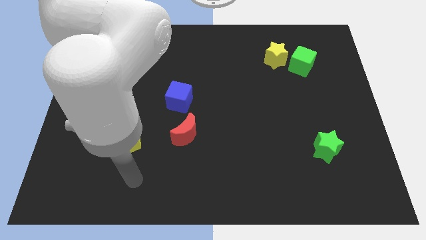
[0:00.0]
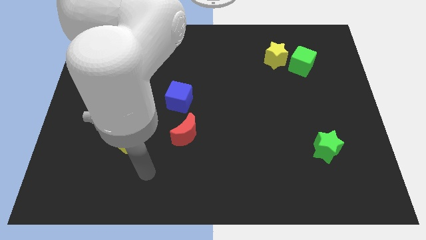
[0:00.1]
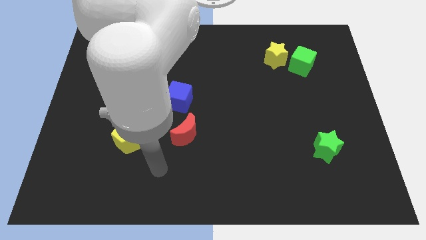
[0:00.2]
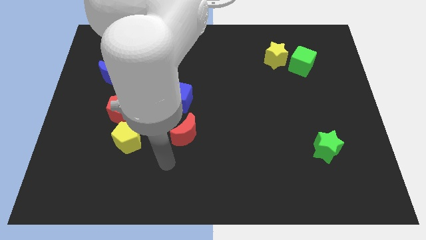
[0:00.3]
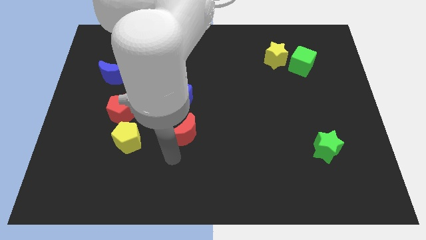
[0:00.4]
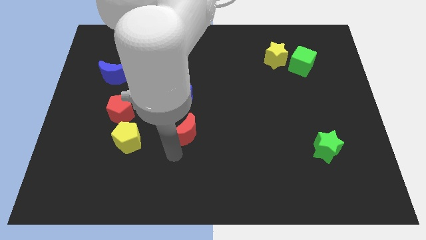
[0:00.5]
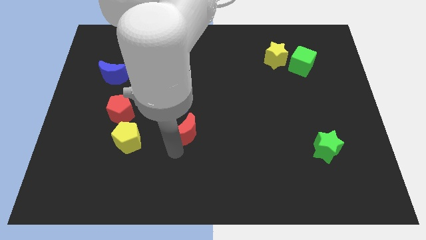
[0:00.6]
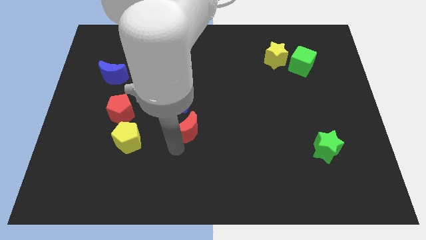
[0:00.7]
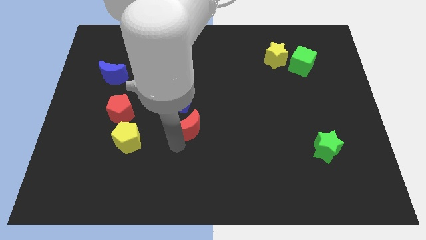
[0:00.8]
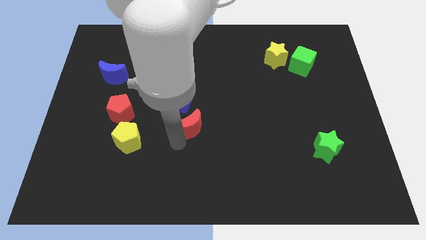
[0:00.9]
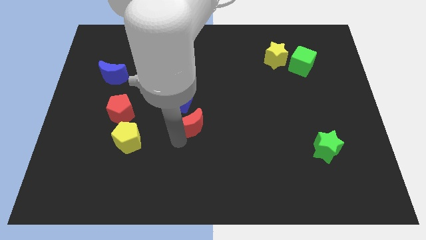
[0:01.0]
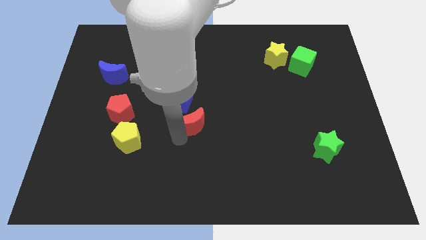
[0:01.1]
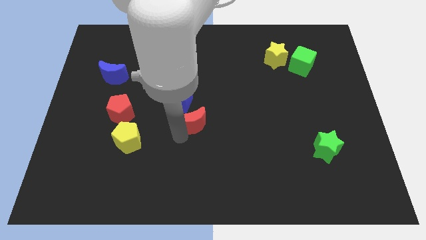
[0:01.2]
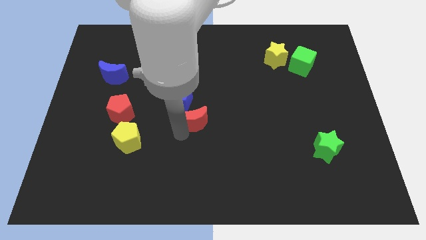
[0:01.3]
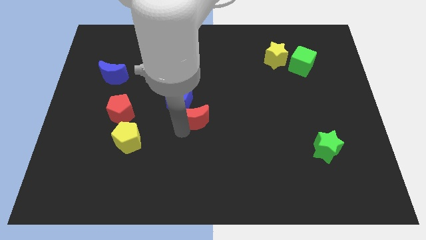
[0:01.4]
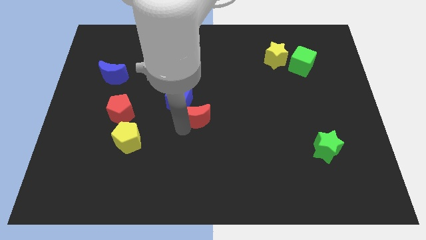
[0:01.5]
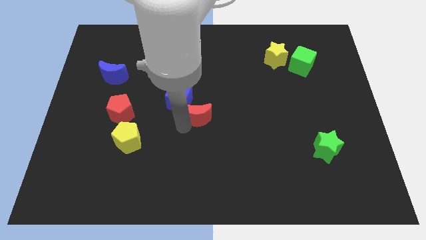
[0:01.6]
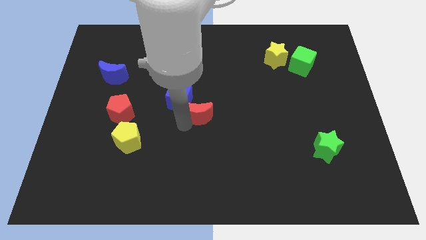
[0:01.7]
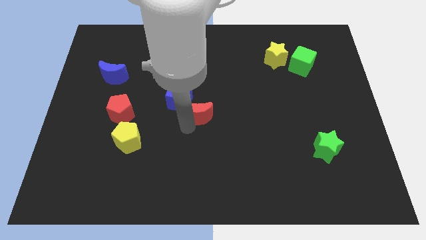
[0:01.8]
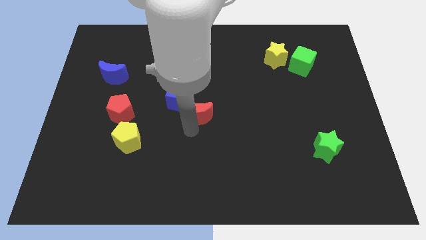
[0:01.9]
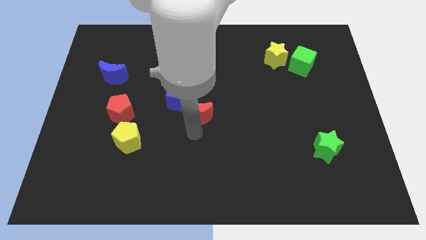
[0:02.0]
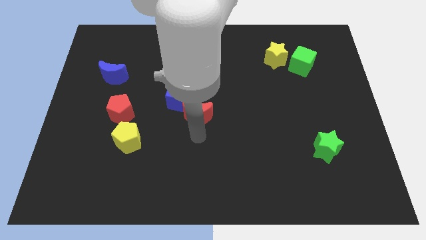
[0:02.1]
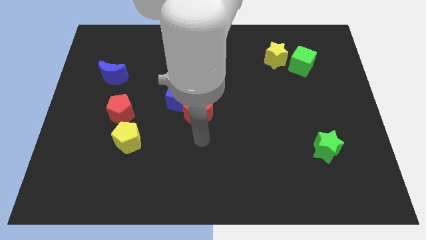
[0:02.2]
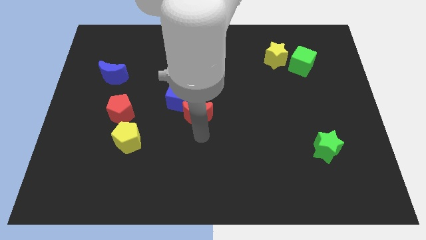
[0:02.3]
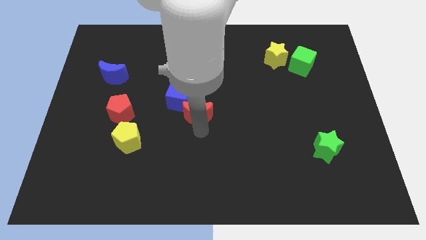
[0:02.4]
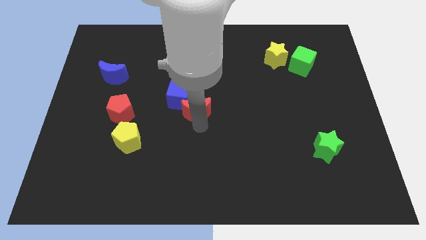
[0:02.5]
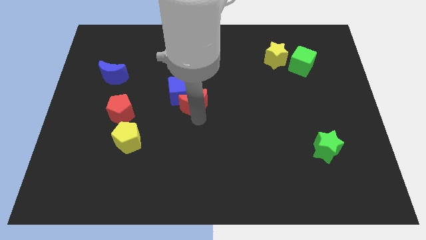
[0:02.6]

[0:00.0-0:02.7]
push the red moon upwards a little bit

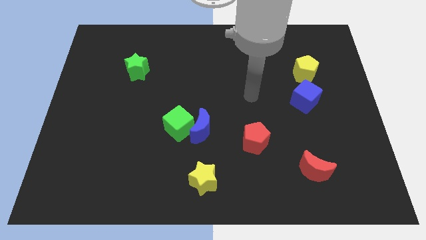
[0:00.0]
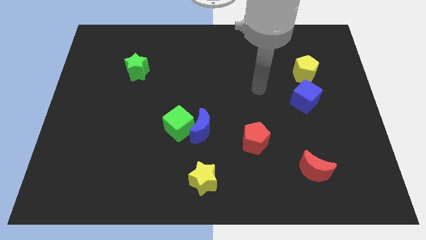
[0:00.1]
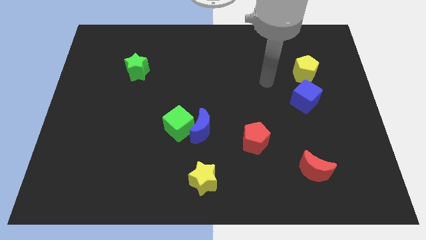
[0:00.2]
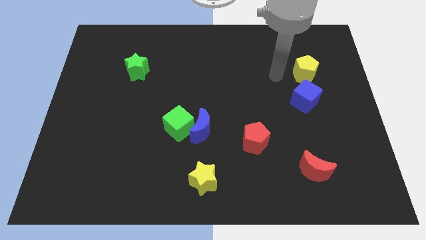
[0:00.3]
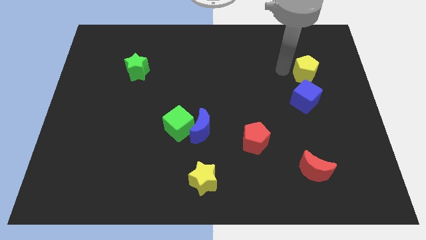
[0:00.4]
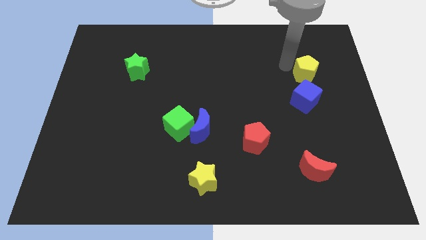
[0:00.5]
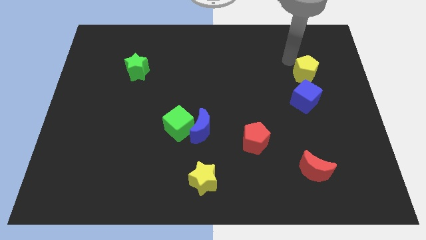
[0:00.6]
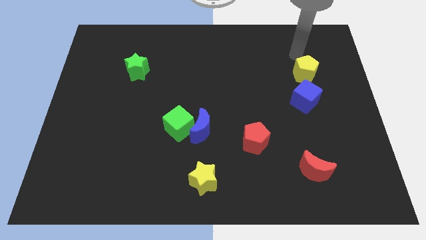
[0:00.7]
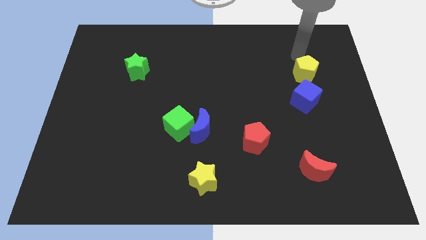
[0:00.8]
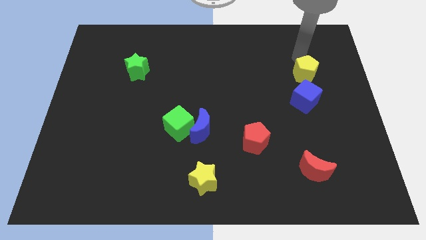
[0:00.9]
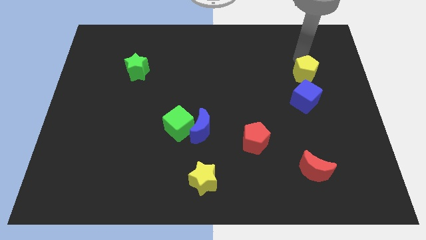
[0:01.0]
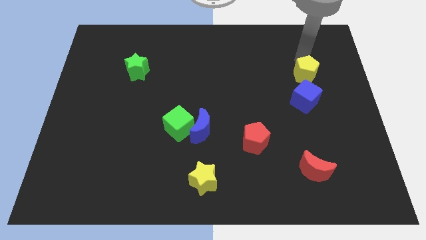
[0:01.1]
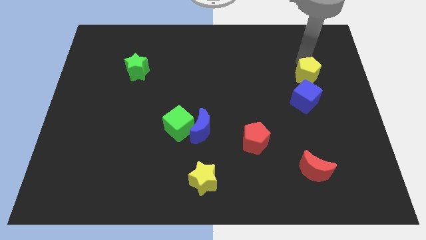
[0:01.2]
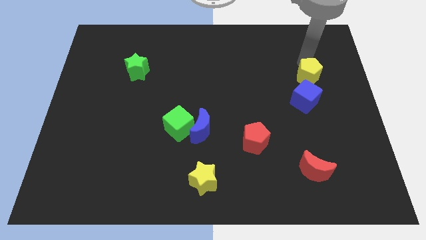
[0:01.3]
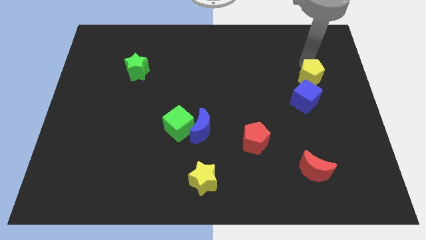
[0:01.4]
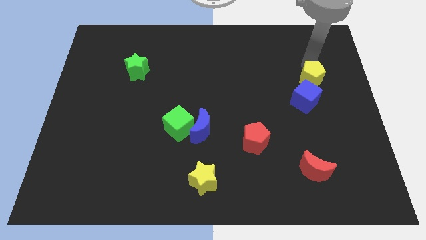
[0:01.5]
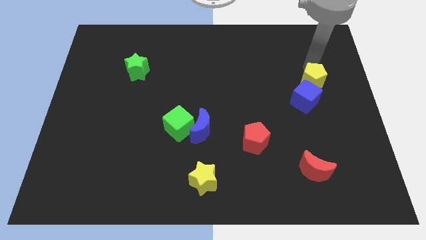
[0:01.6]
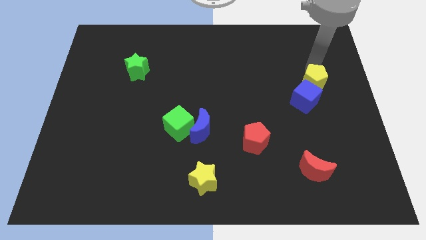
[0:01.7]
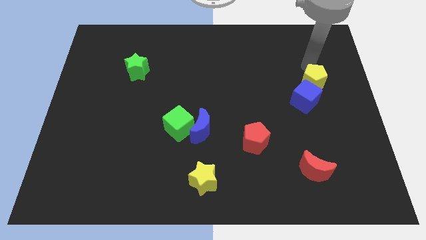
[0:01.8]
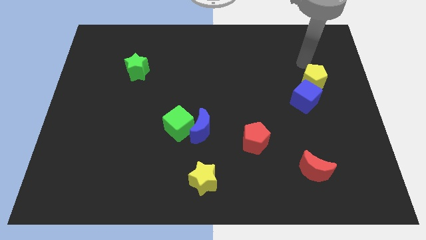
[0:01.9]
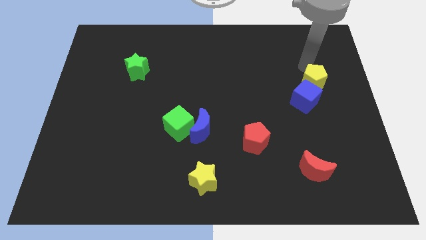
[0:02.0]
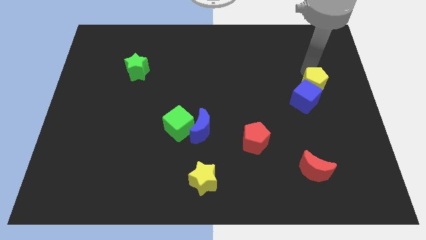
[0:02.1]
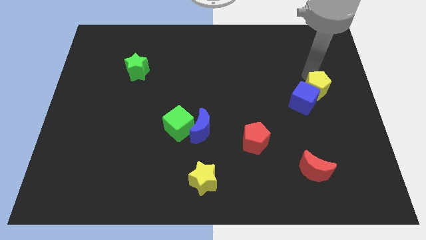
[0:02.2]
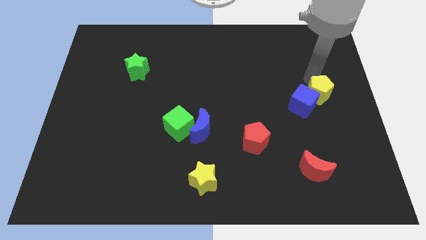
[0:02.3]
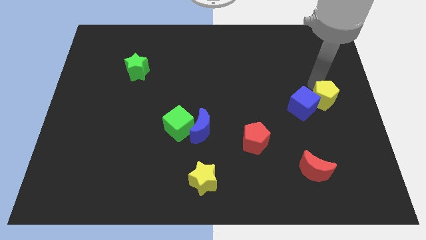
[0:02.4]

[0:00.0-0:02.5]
slightly push the yellow pentagon down

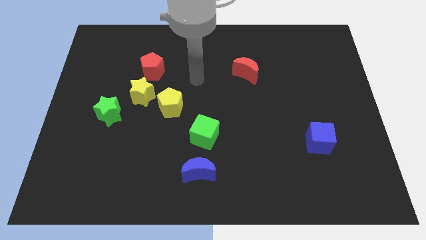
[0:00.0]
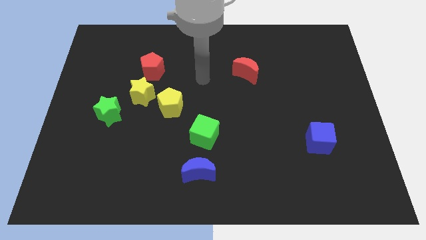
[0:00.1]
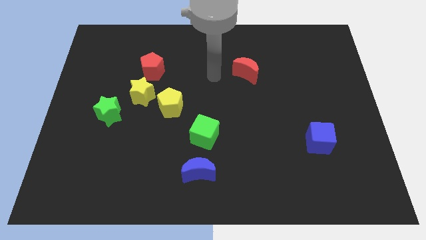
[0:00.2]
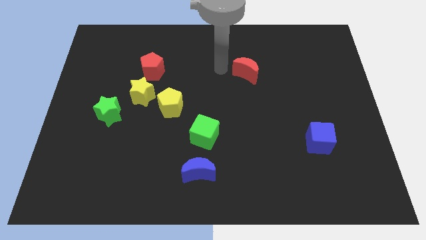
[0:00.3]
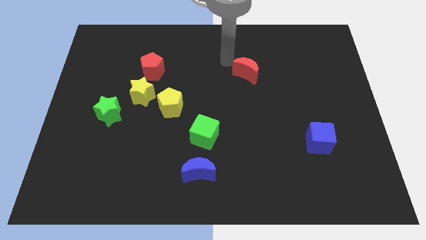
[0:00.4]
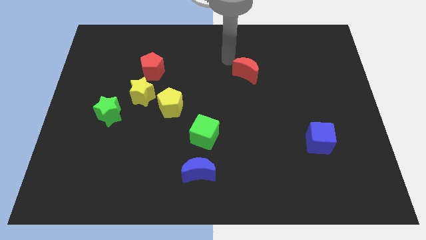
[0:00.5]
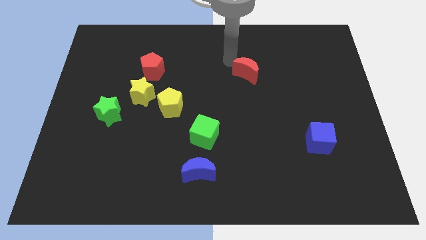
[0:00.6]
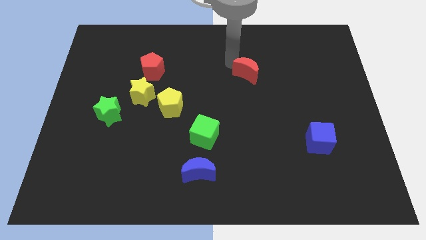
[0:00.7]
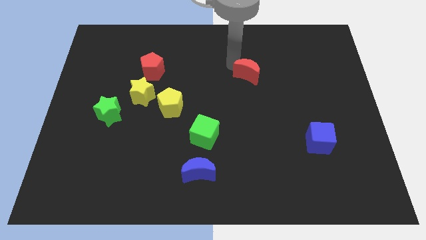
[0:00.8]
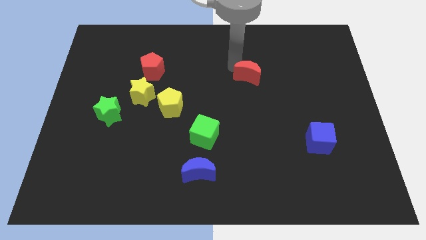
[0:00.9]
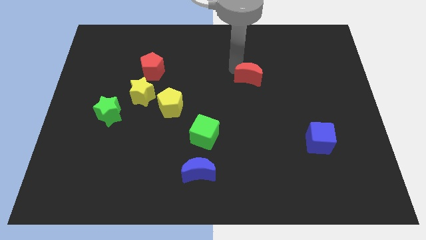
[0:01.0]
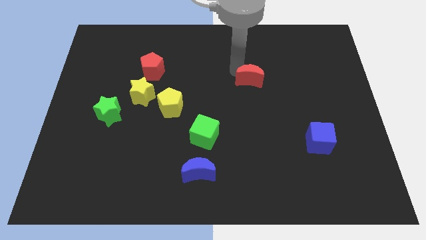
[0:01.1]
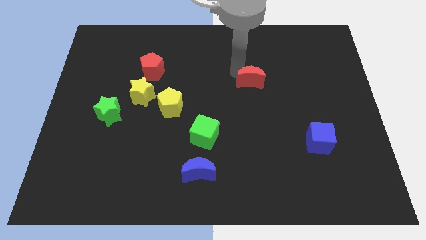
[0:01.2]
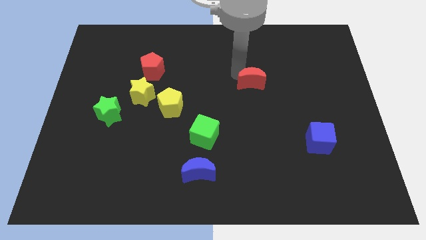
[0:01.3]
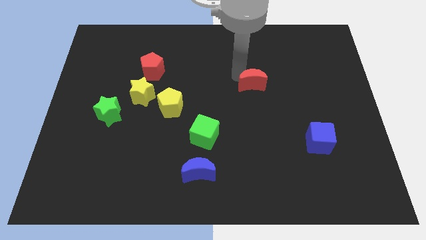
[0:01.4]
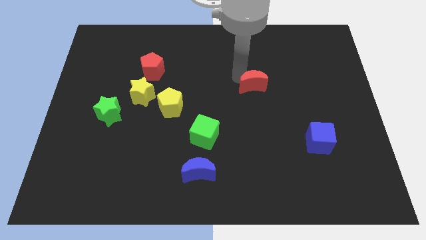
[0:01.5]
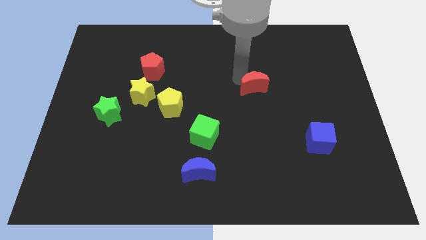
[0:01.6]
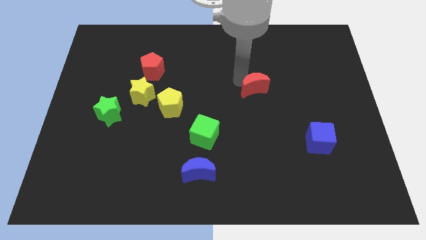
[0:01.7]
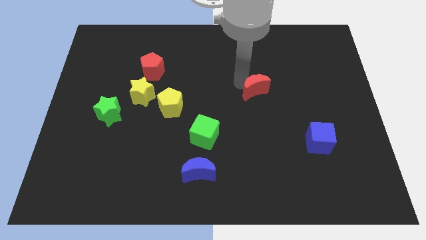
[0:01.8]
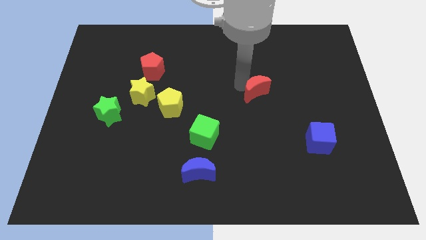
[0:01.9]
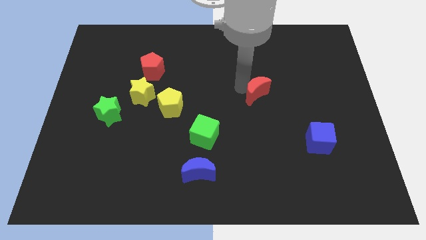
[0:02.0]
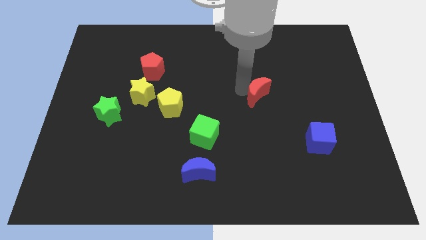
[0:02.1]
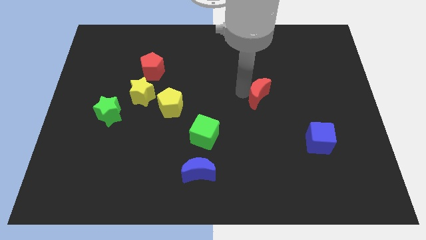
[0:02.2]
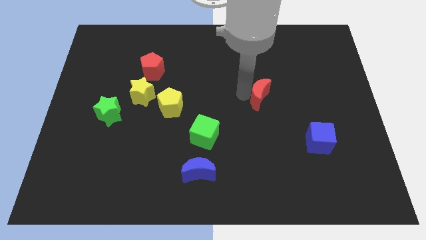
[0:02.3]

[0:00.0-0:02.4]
slightly push the red moon down and then to the right

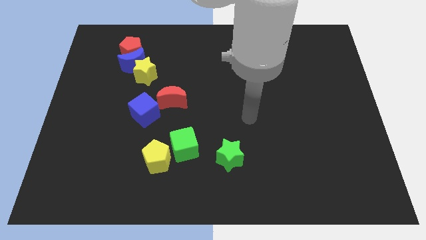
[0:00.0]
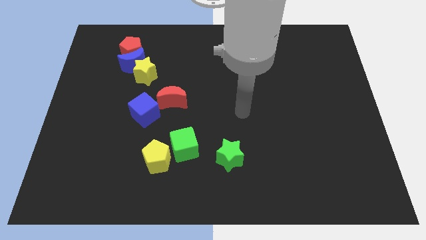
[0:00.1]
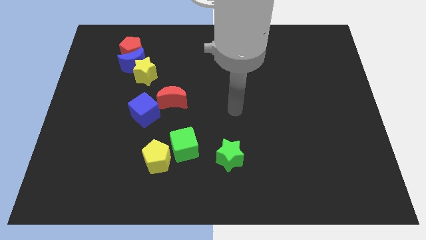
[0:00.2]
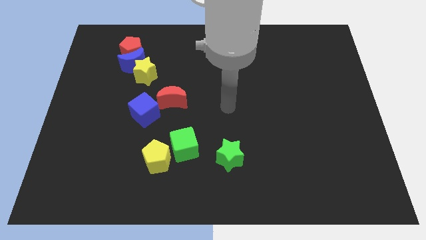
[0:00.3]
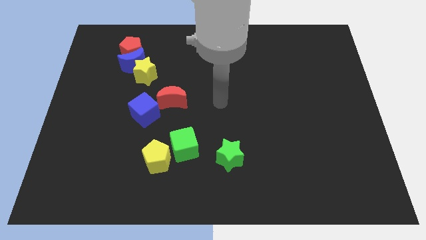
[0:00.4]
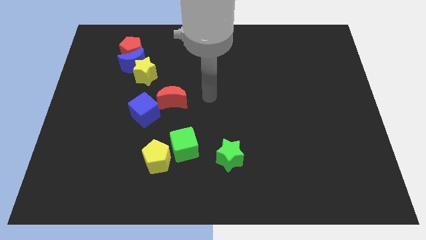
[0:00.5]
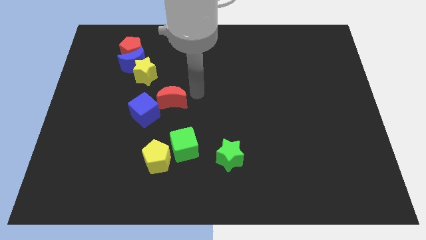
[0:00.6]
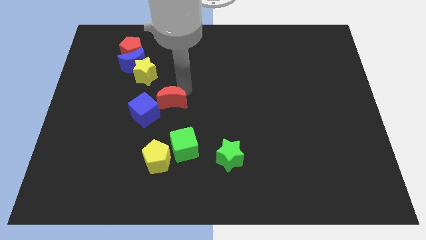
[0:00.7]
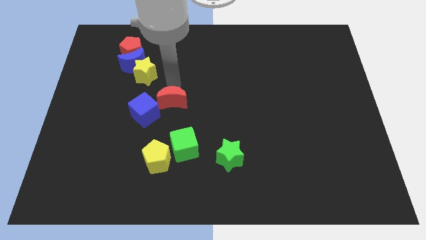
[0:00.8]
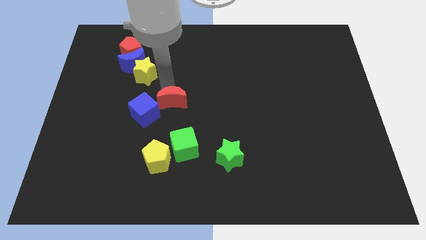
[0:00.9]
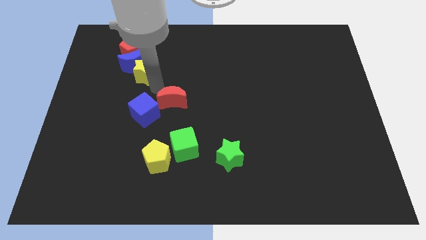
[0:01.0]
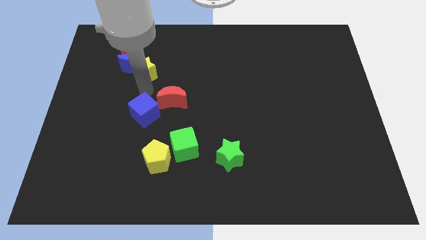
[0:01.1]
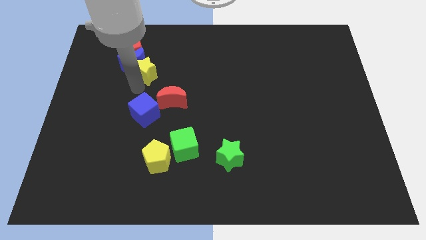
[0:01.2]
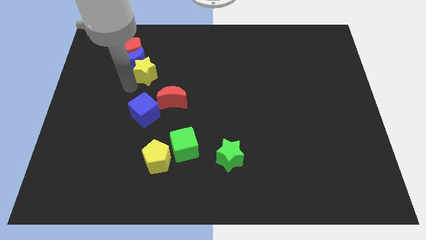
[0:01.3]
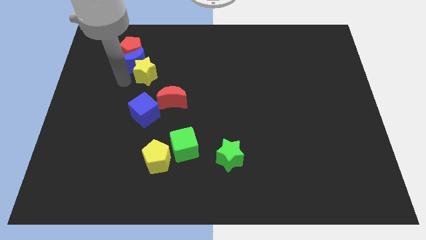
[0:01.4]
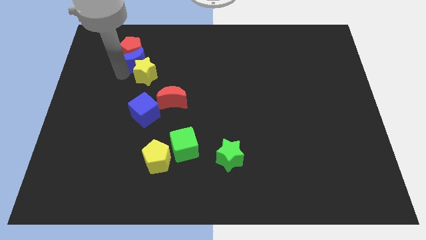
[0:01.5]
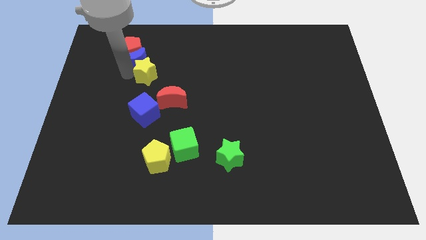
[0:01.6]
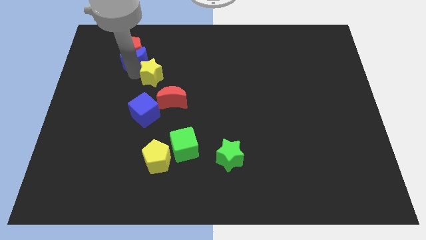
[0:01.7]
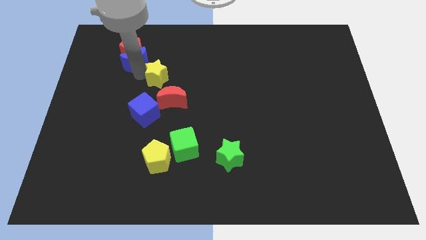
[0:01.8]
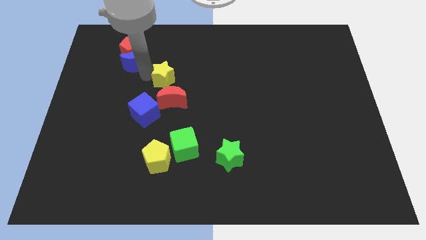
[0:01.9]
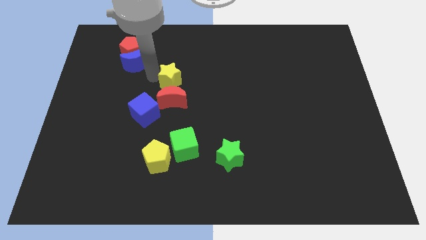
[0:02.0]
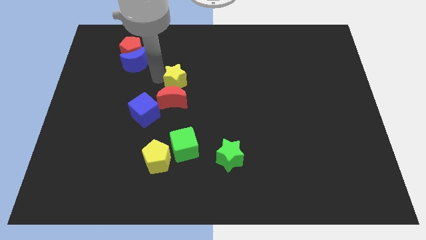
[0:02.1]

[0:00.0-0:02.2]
slightly slide the yellow star to the right
